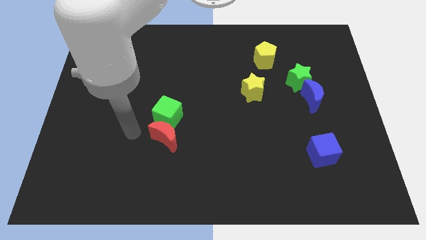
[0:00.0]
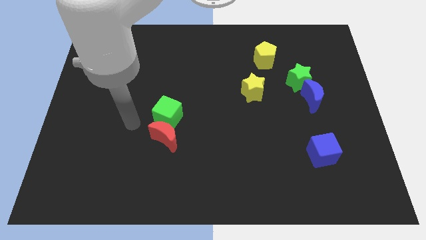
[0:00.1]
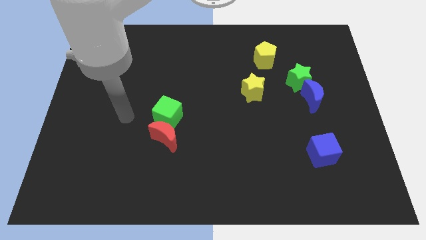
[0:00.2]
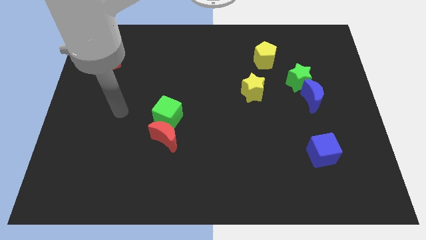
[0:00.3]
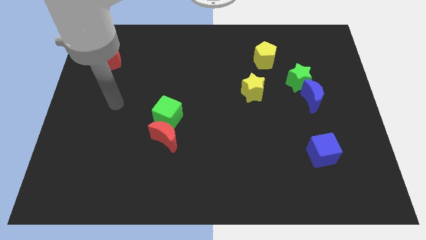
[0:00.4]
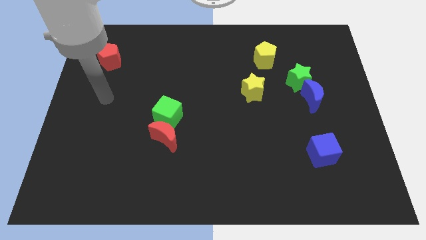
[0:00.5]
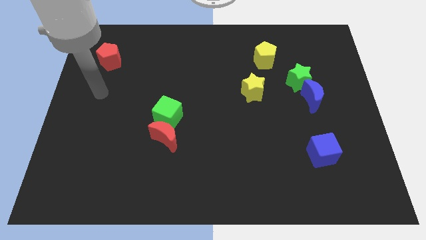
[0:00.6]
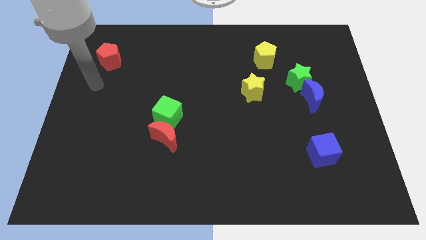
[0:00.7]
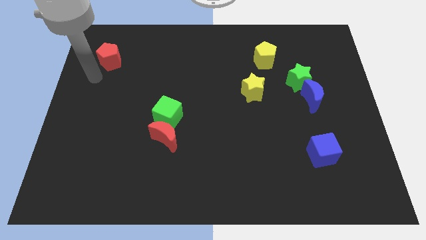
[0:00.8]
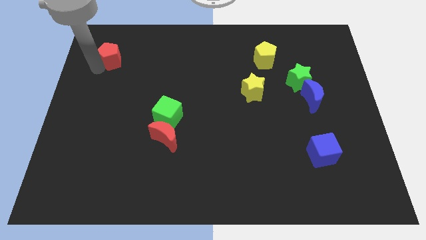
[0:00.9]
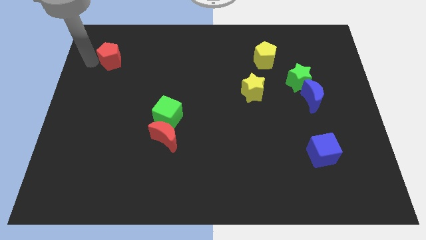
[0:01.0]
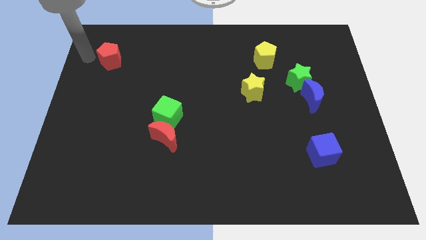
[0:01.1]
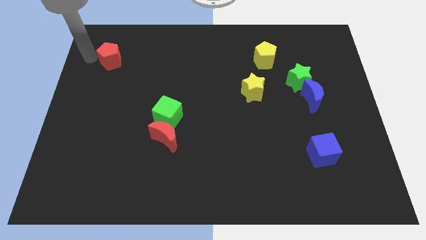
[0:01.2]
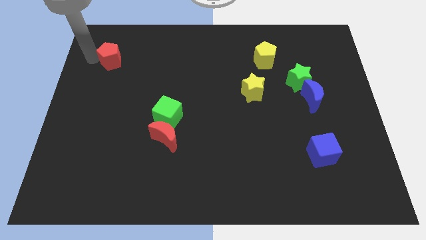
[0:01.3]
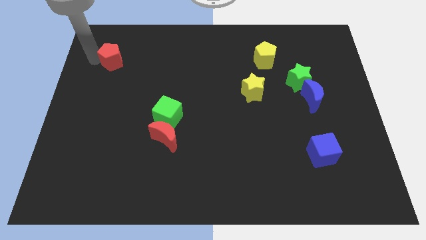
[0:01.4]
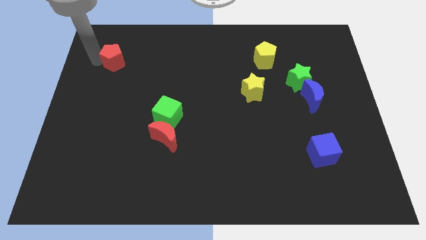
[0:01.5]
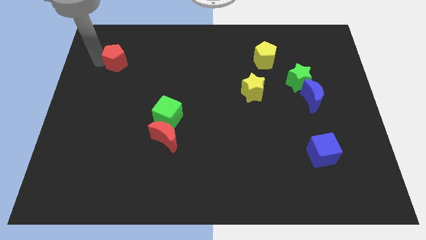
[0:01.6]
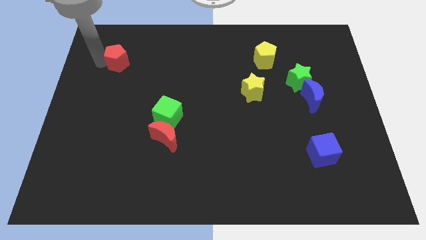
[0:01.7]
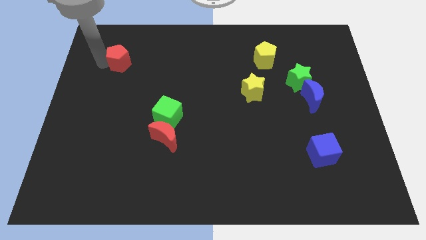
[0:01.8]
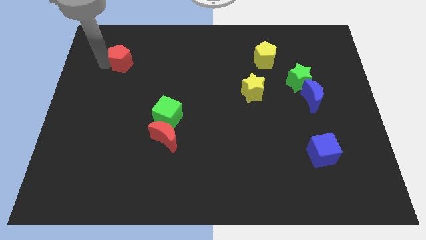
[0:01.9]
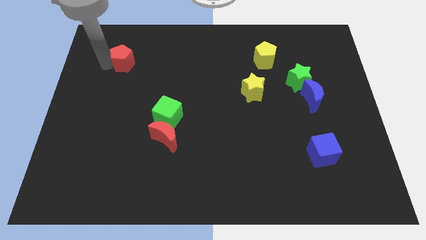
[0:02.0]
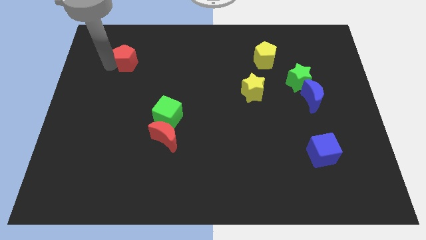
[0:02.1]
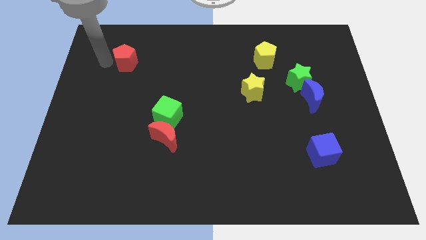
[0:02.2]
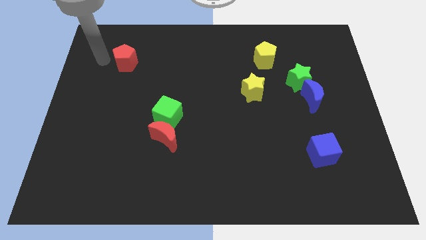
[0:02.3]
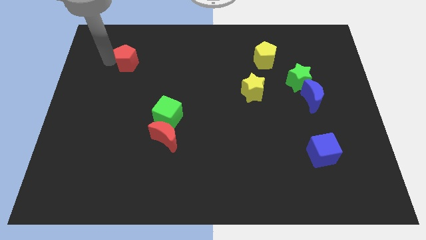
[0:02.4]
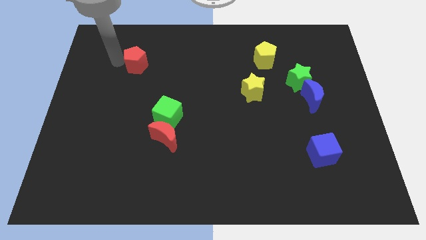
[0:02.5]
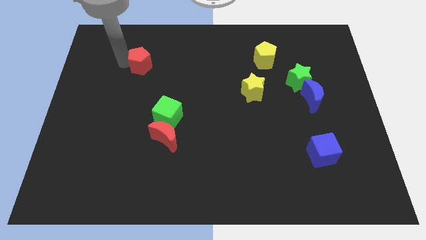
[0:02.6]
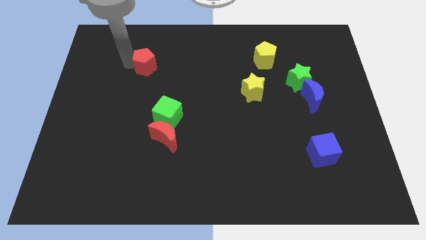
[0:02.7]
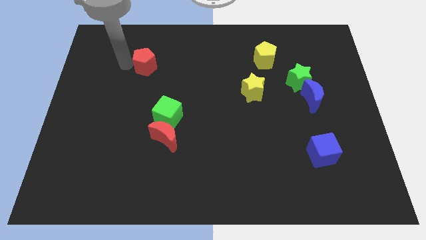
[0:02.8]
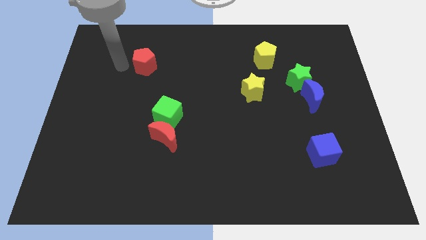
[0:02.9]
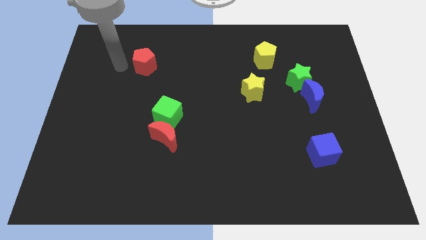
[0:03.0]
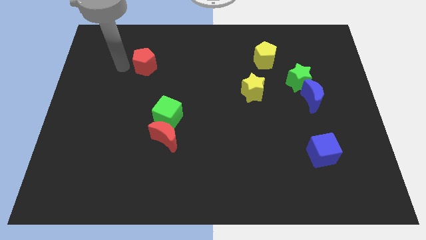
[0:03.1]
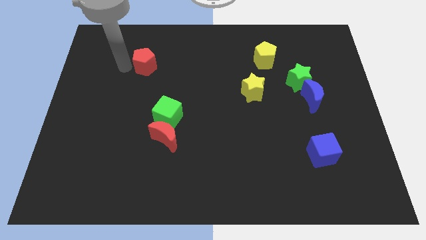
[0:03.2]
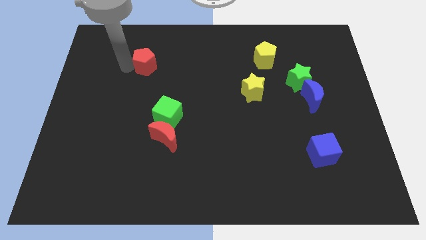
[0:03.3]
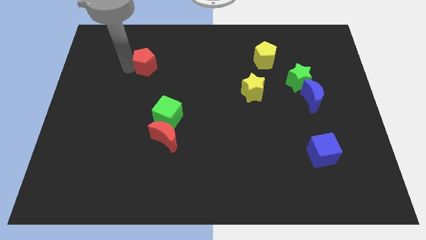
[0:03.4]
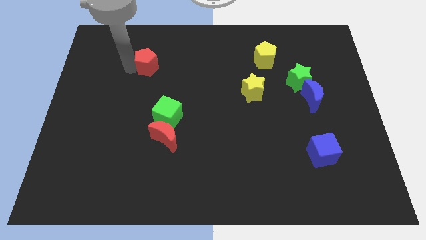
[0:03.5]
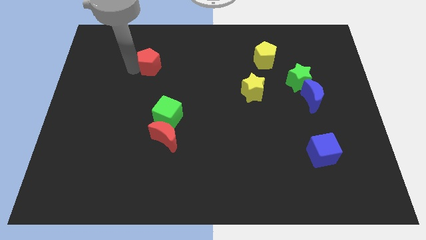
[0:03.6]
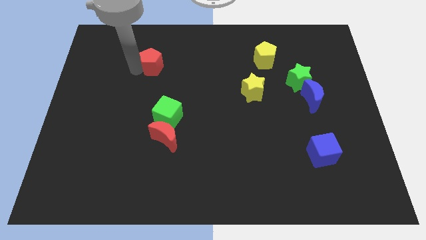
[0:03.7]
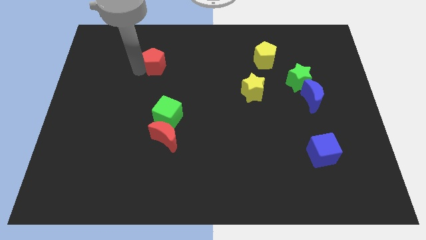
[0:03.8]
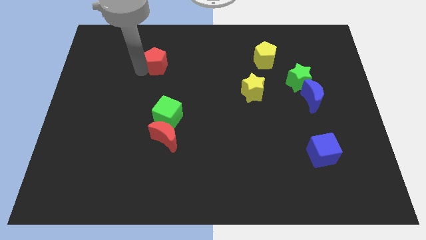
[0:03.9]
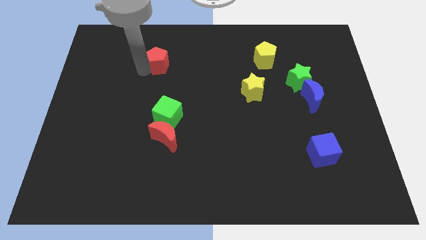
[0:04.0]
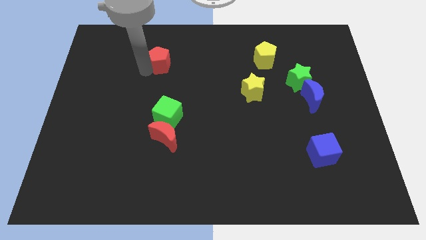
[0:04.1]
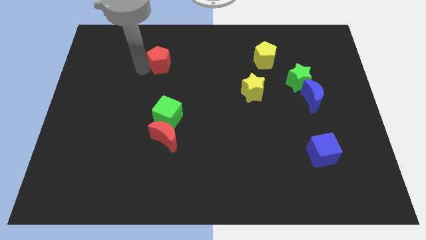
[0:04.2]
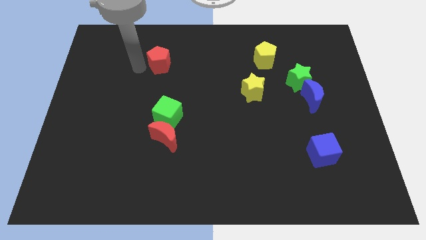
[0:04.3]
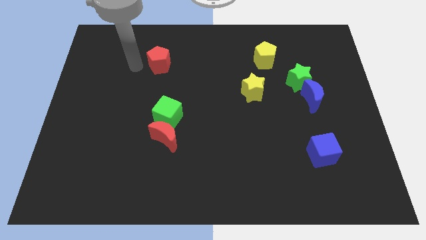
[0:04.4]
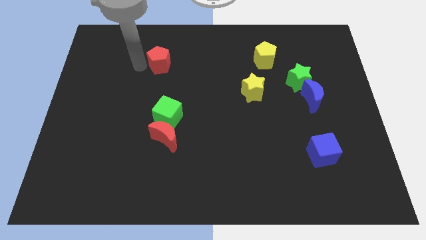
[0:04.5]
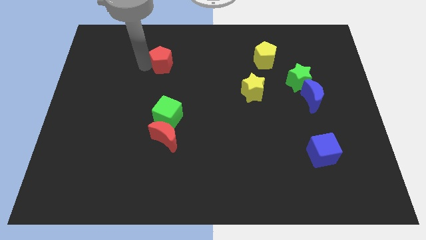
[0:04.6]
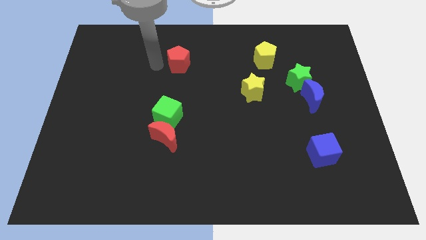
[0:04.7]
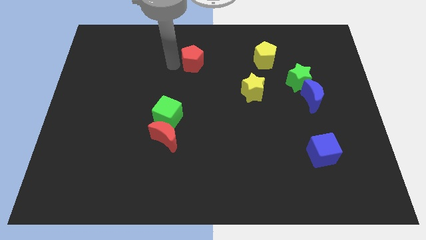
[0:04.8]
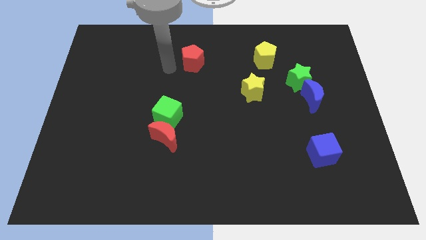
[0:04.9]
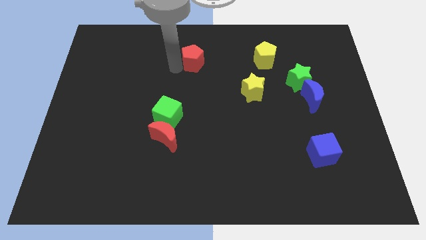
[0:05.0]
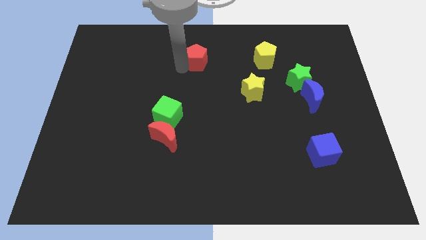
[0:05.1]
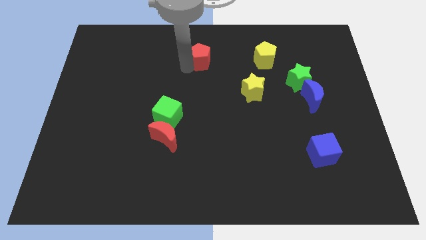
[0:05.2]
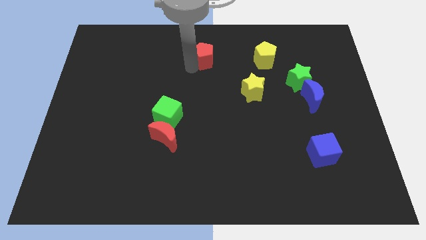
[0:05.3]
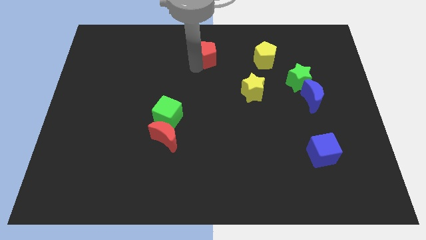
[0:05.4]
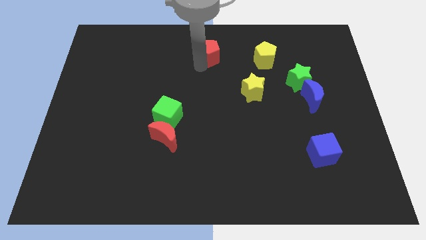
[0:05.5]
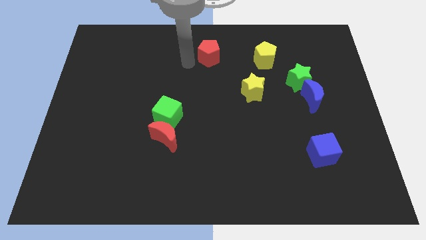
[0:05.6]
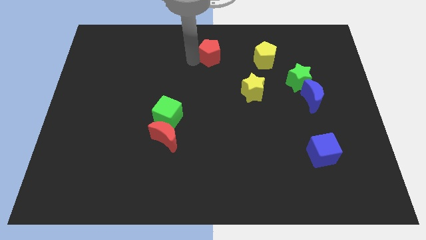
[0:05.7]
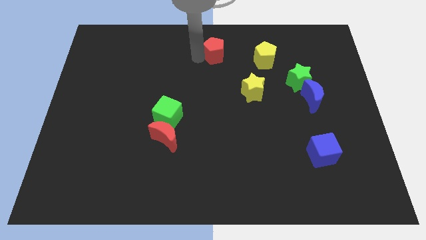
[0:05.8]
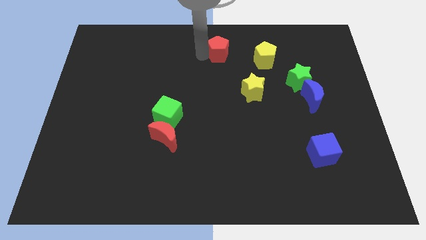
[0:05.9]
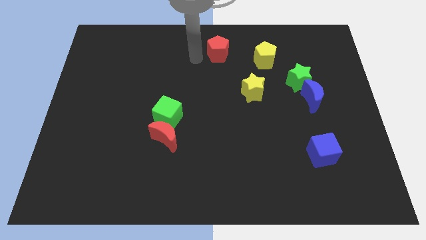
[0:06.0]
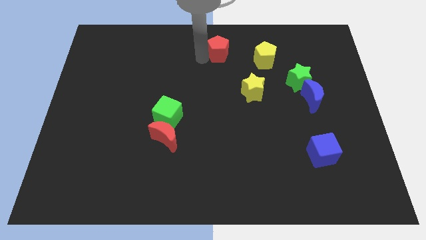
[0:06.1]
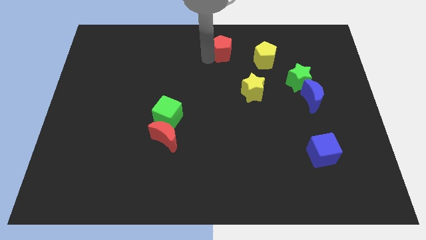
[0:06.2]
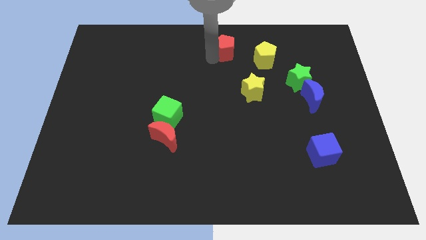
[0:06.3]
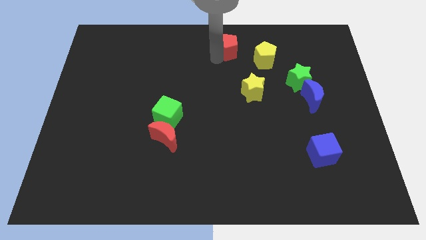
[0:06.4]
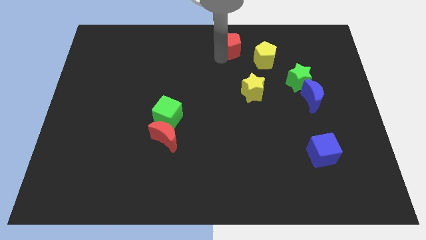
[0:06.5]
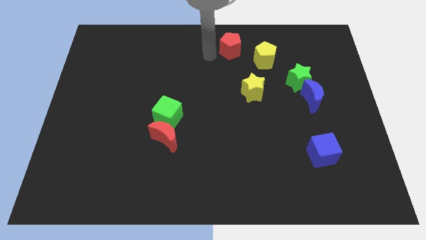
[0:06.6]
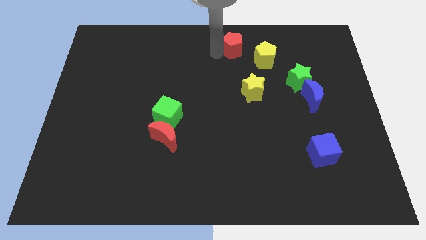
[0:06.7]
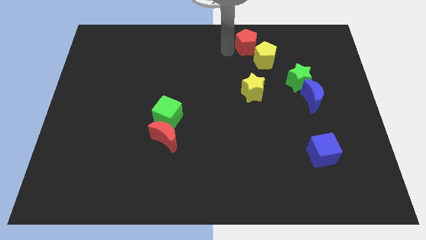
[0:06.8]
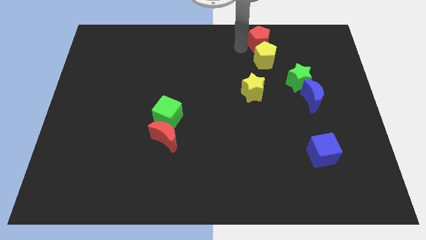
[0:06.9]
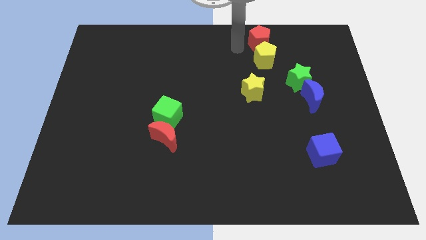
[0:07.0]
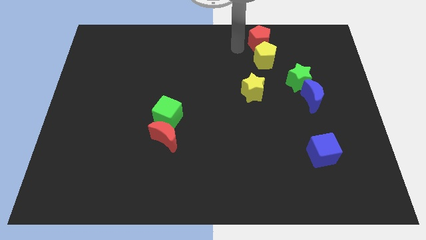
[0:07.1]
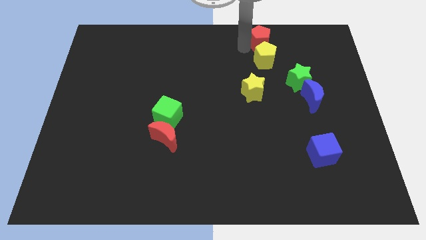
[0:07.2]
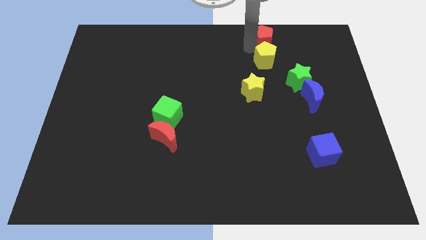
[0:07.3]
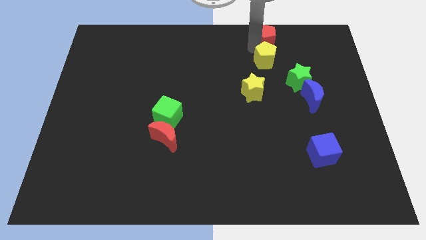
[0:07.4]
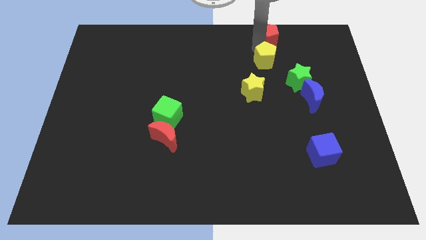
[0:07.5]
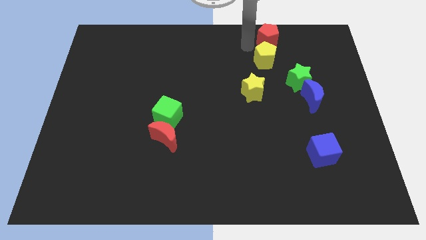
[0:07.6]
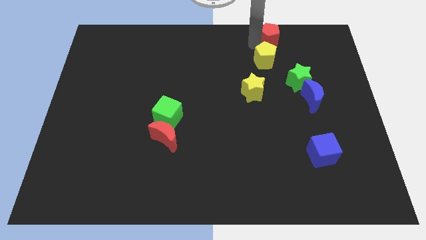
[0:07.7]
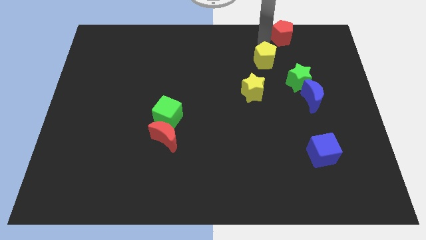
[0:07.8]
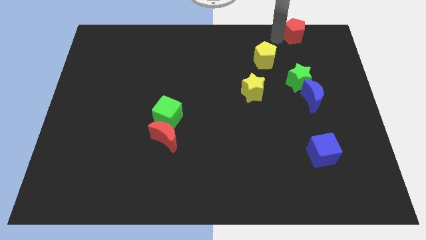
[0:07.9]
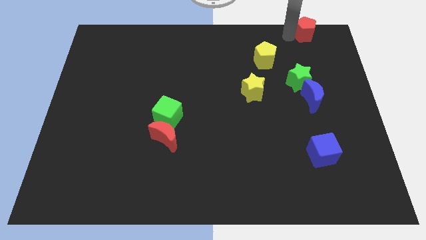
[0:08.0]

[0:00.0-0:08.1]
put the red pentagon to the top right
